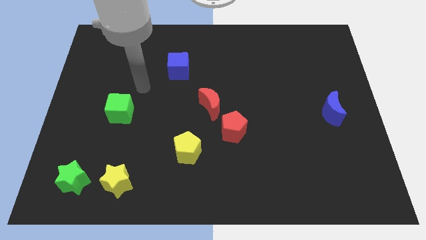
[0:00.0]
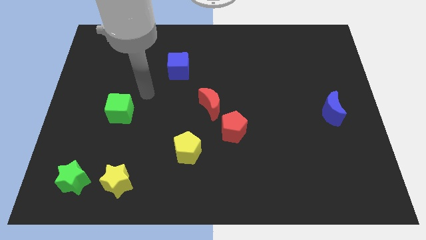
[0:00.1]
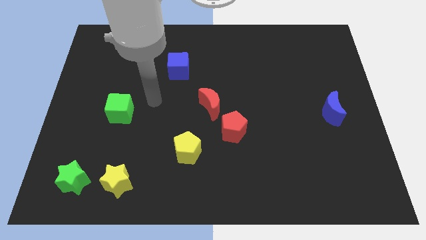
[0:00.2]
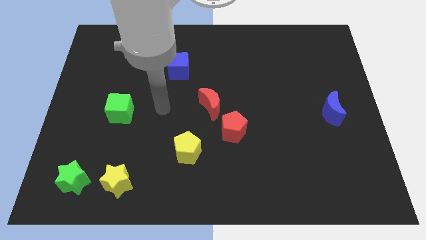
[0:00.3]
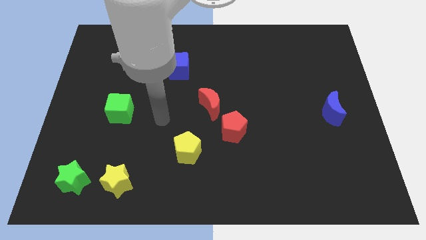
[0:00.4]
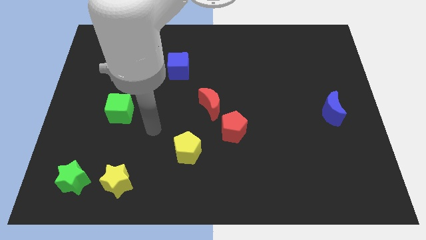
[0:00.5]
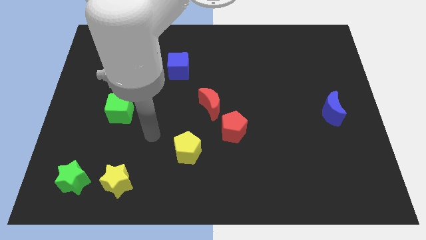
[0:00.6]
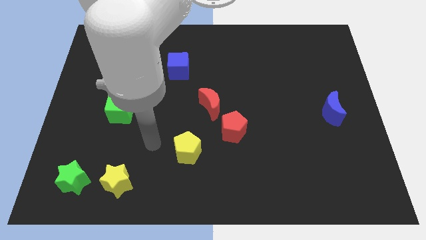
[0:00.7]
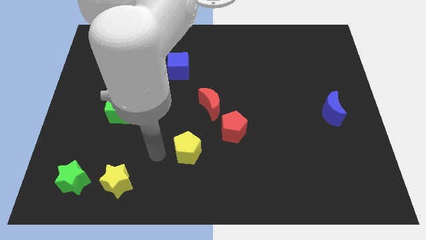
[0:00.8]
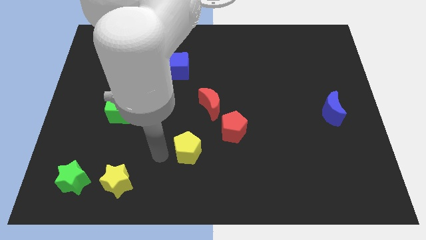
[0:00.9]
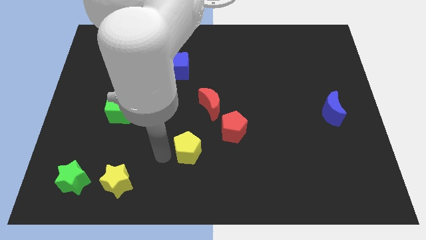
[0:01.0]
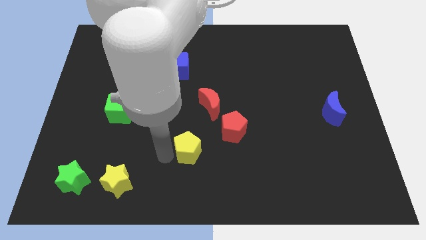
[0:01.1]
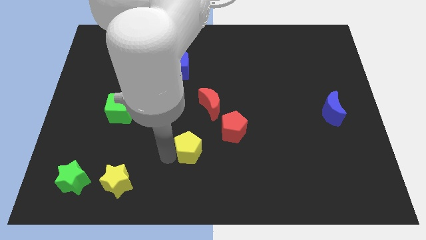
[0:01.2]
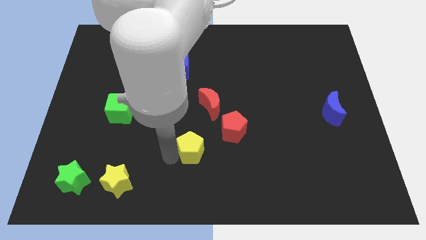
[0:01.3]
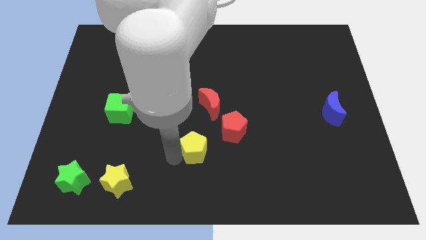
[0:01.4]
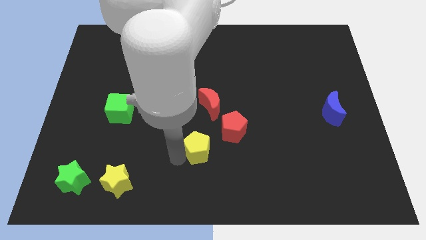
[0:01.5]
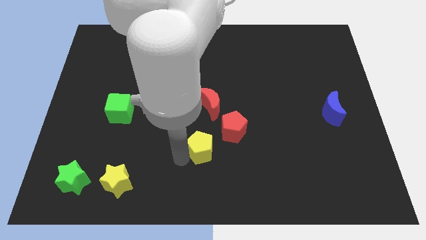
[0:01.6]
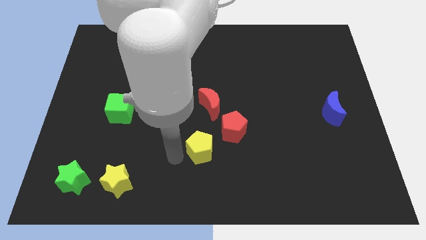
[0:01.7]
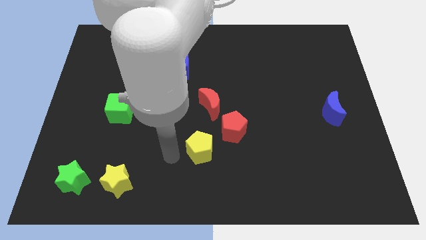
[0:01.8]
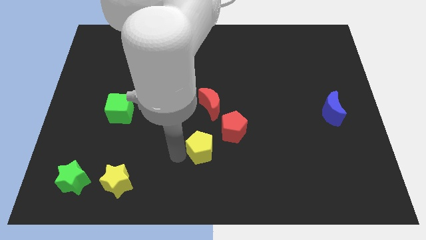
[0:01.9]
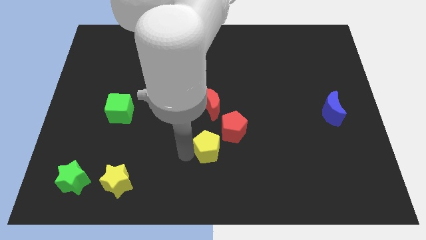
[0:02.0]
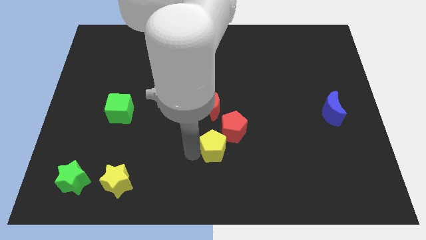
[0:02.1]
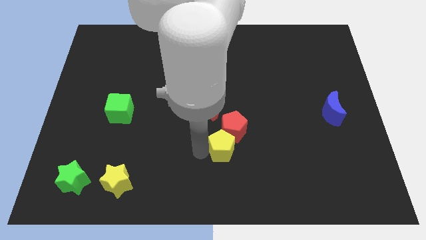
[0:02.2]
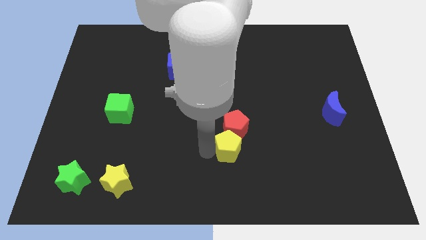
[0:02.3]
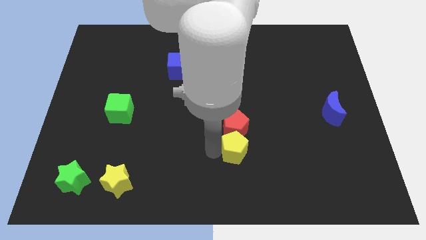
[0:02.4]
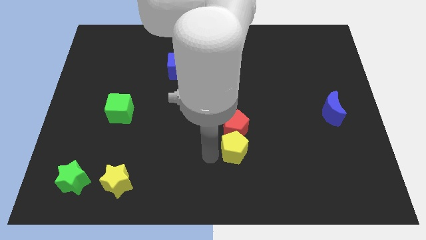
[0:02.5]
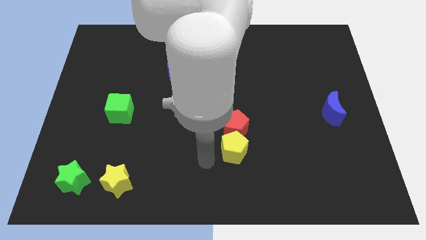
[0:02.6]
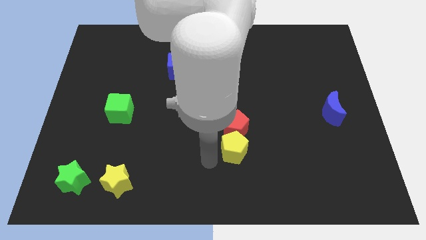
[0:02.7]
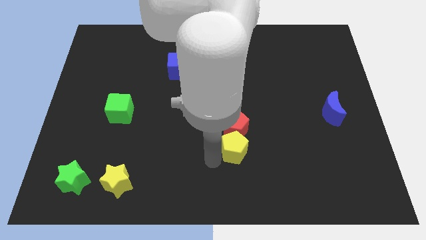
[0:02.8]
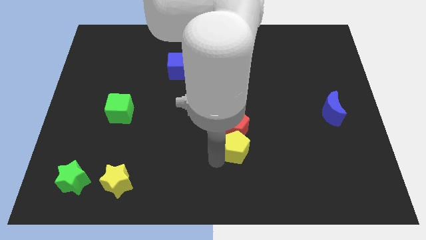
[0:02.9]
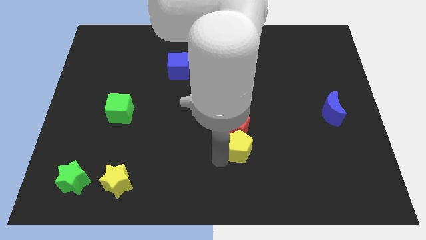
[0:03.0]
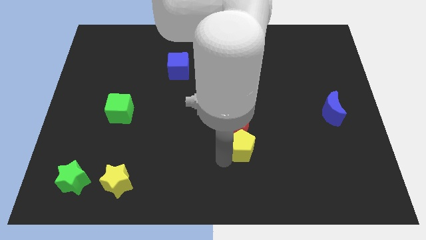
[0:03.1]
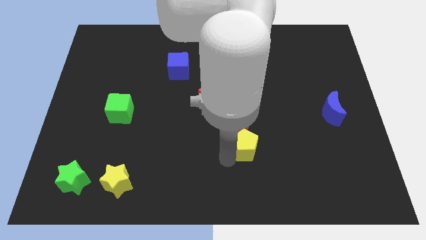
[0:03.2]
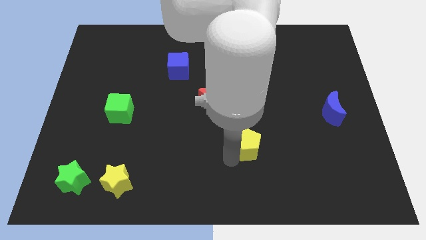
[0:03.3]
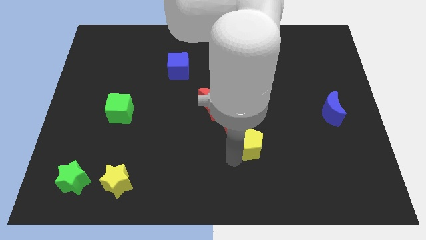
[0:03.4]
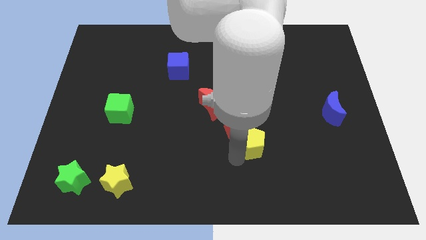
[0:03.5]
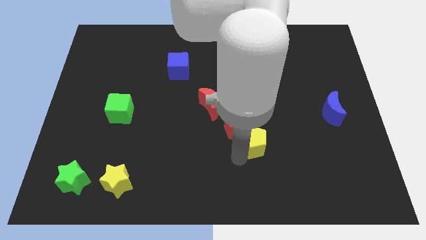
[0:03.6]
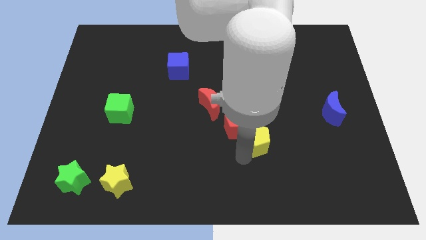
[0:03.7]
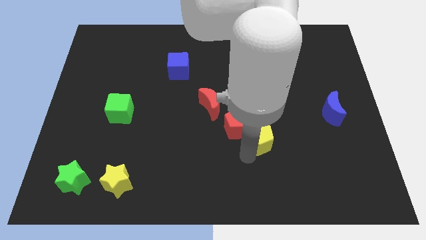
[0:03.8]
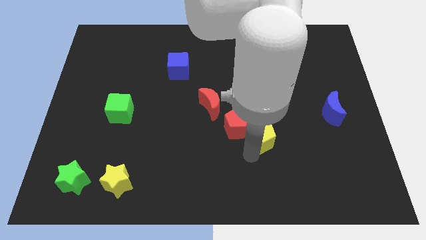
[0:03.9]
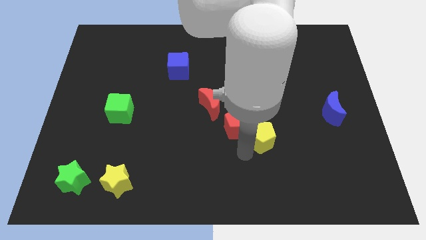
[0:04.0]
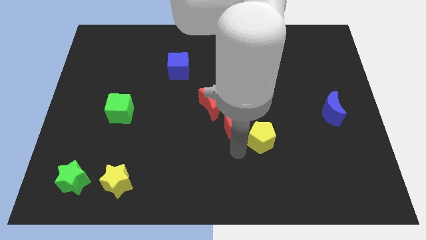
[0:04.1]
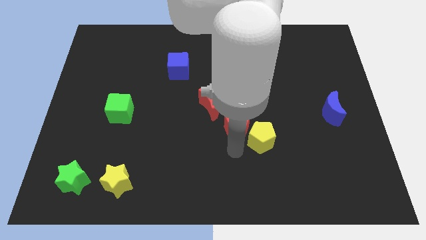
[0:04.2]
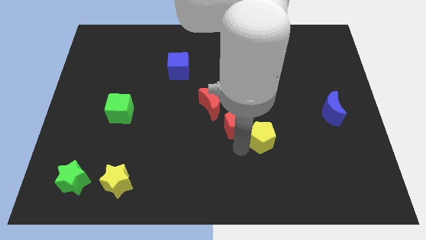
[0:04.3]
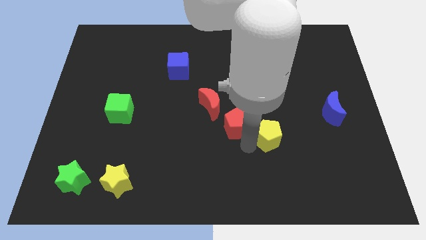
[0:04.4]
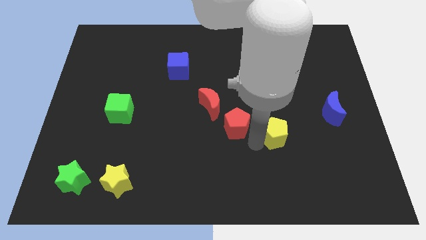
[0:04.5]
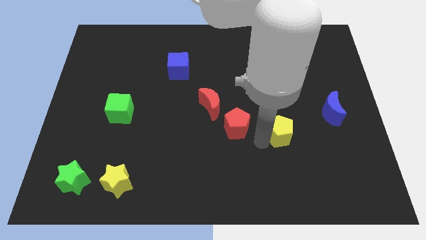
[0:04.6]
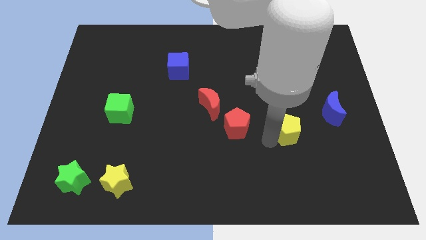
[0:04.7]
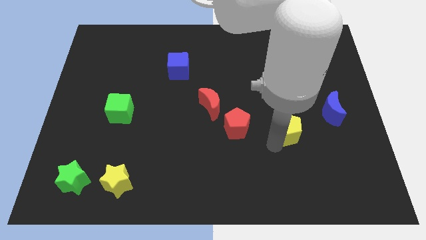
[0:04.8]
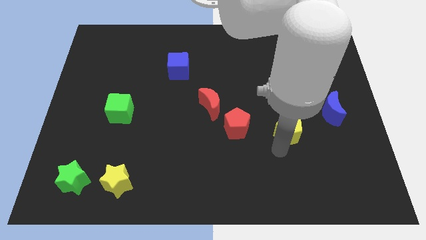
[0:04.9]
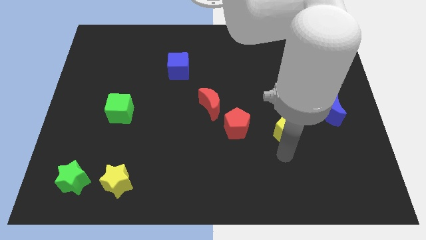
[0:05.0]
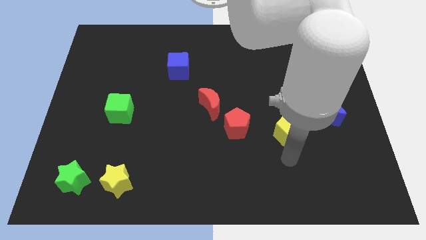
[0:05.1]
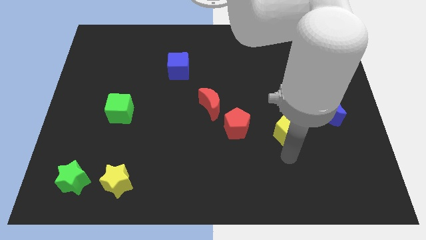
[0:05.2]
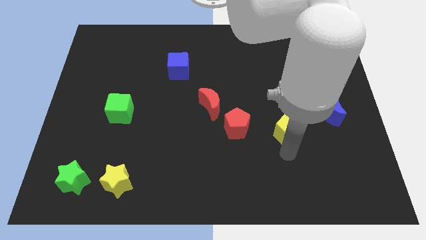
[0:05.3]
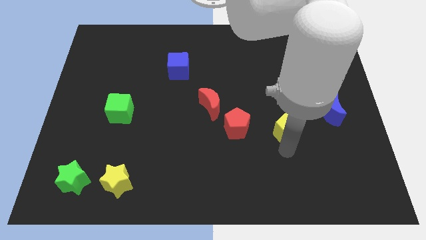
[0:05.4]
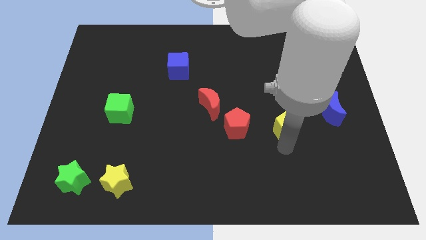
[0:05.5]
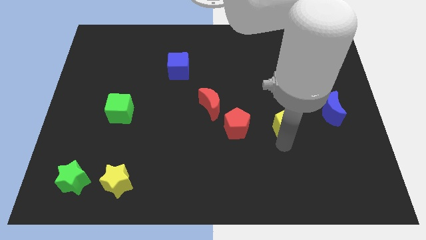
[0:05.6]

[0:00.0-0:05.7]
put the yellow pentagon to the left side of the blue moon

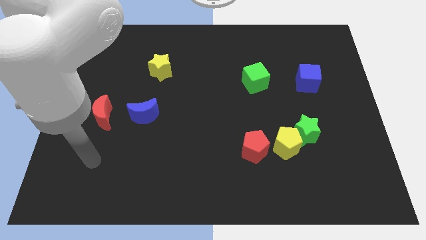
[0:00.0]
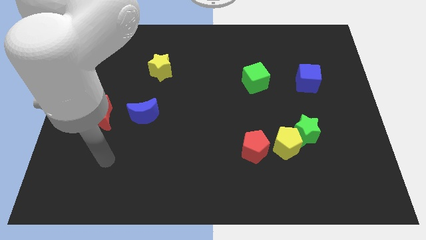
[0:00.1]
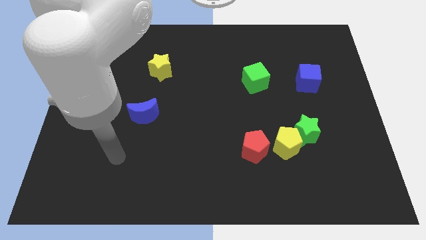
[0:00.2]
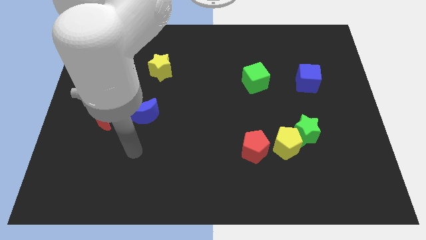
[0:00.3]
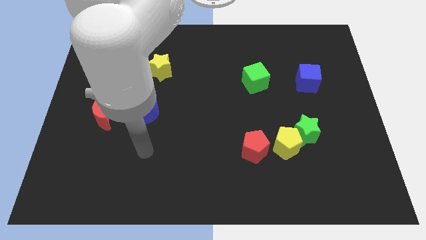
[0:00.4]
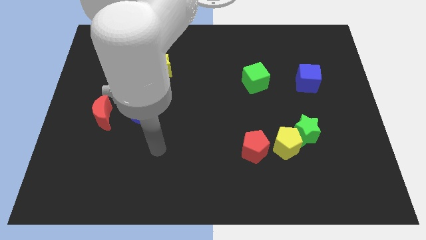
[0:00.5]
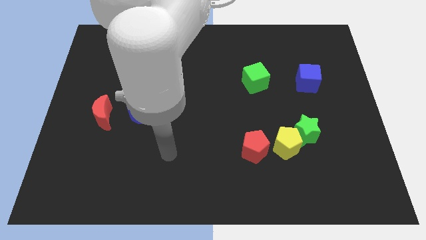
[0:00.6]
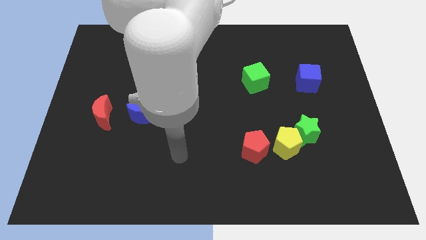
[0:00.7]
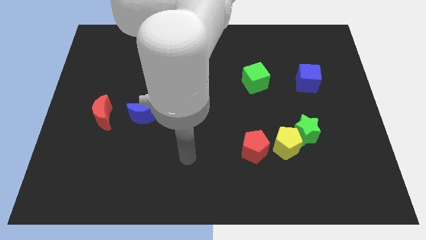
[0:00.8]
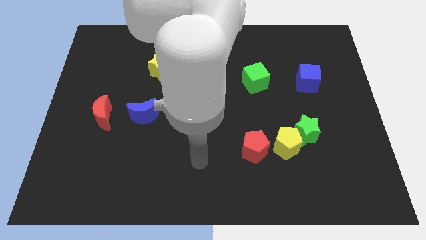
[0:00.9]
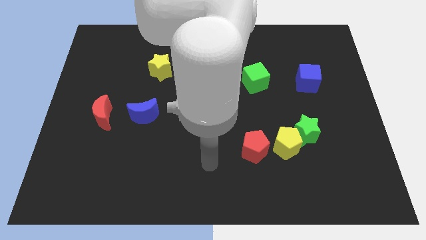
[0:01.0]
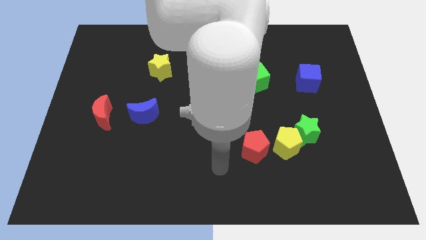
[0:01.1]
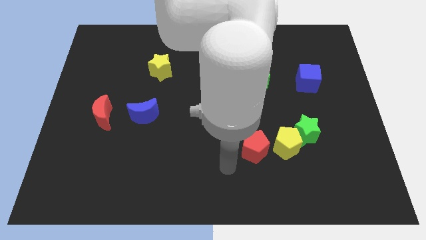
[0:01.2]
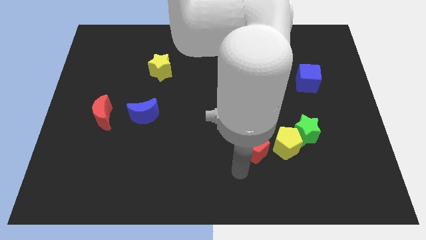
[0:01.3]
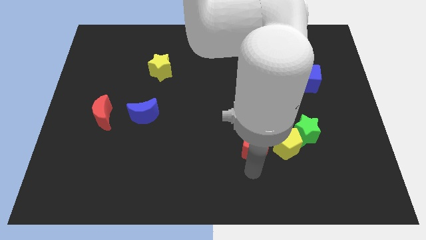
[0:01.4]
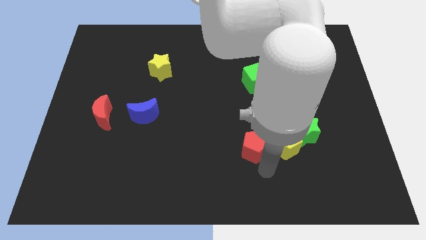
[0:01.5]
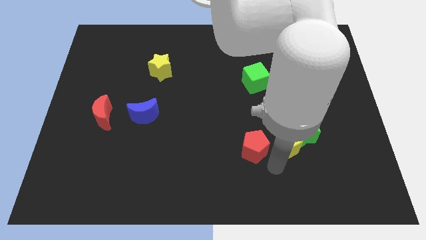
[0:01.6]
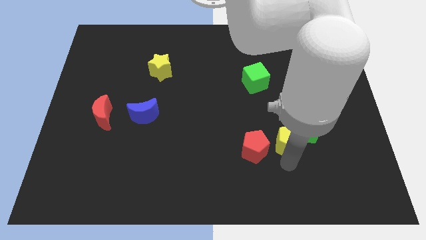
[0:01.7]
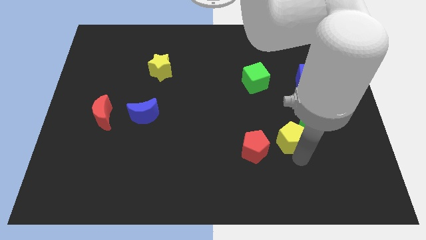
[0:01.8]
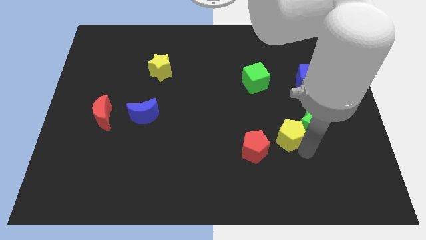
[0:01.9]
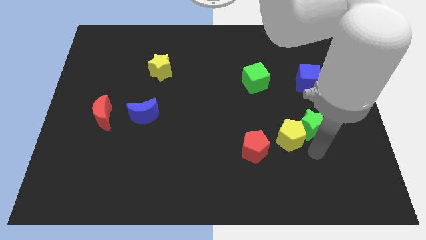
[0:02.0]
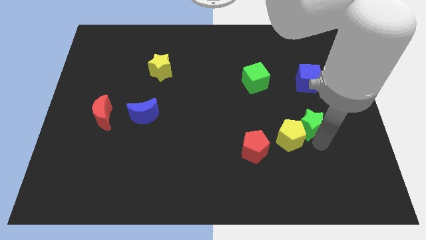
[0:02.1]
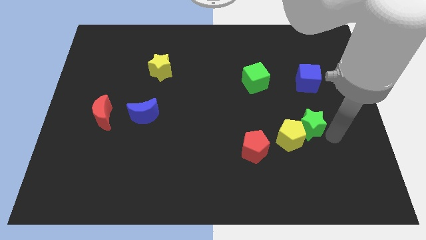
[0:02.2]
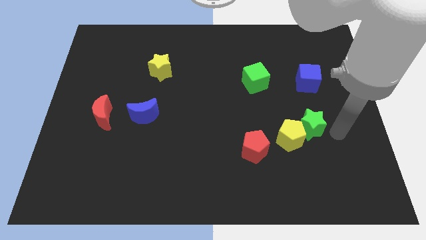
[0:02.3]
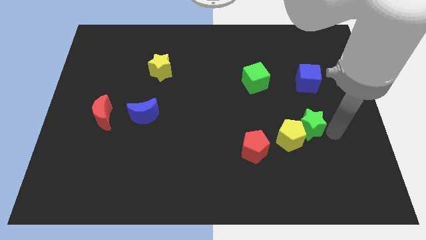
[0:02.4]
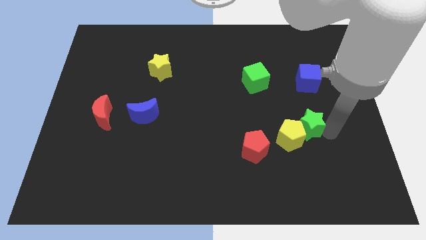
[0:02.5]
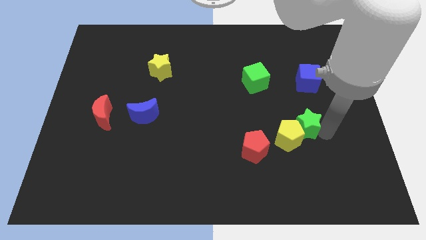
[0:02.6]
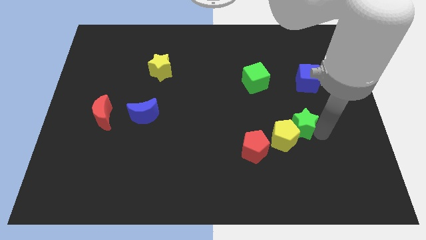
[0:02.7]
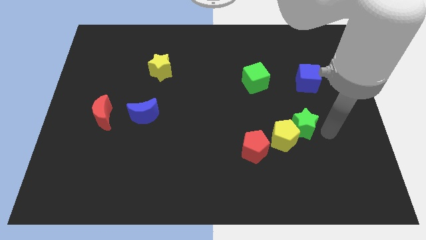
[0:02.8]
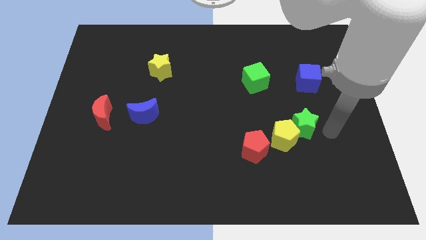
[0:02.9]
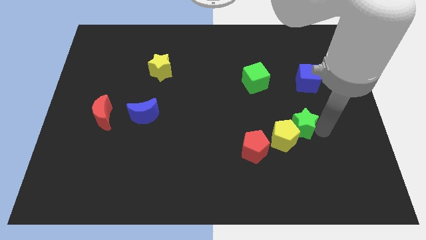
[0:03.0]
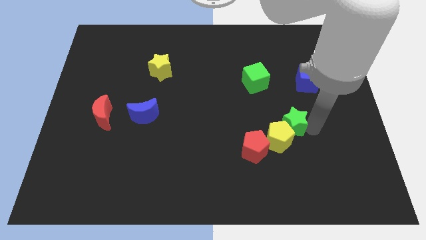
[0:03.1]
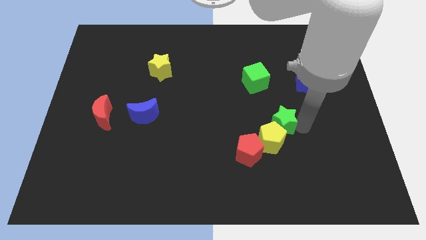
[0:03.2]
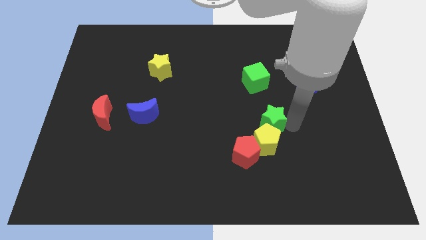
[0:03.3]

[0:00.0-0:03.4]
put the green star to the top left side of the yellow pentagon
